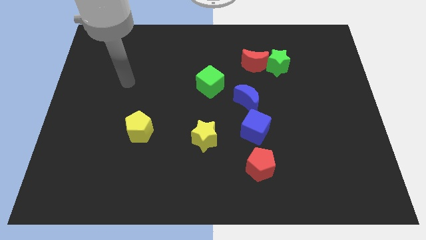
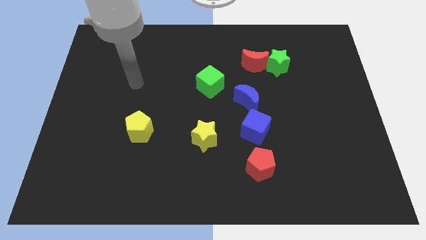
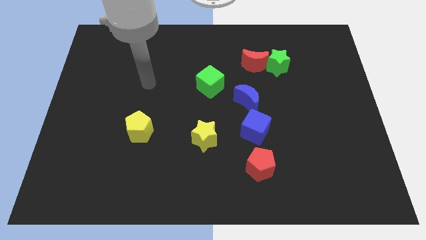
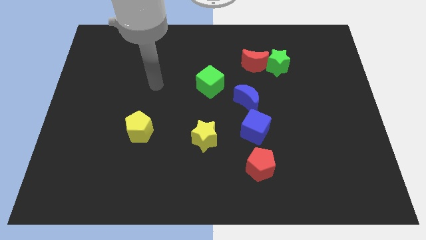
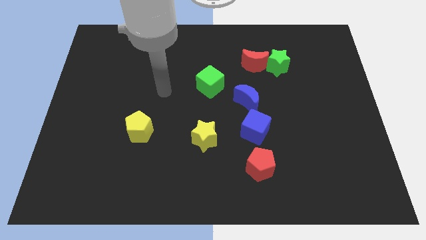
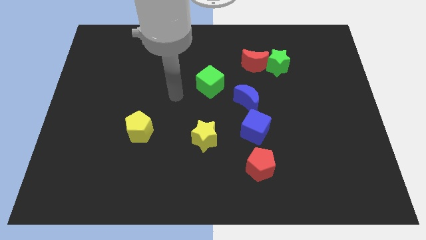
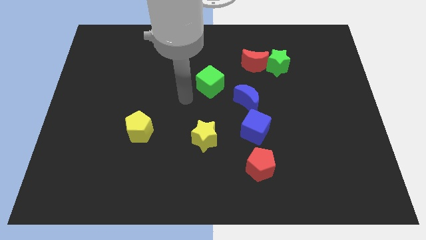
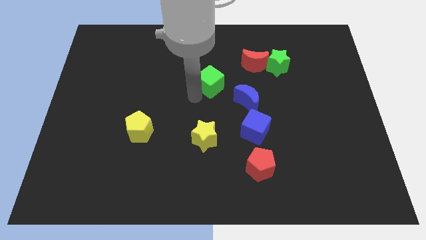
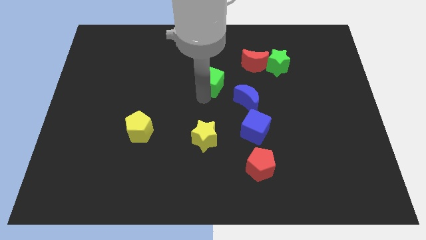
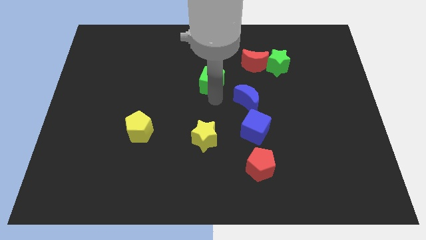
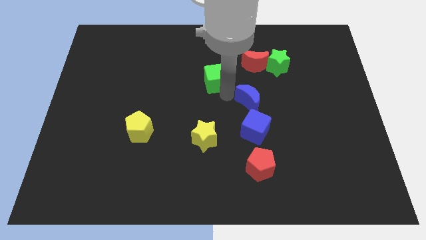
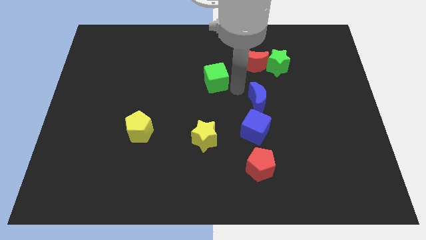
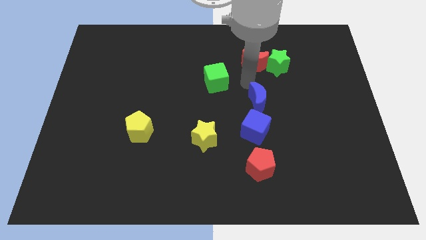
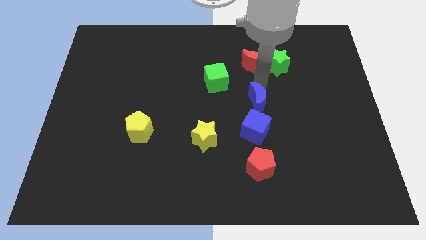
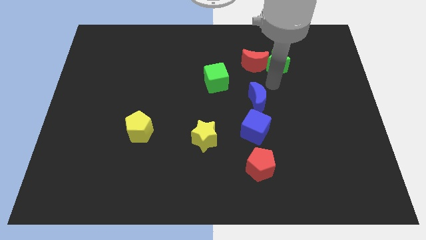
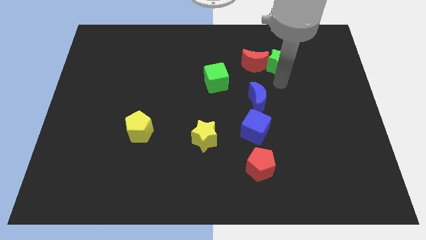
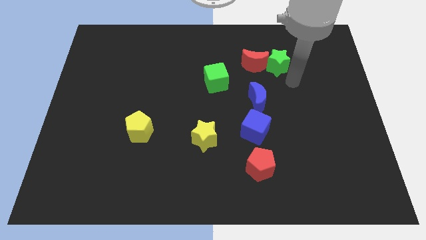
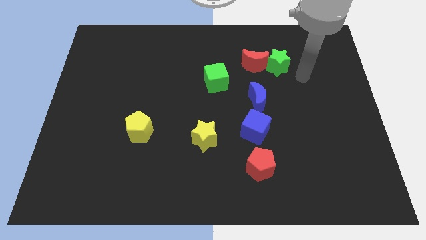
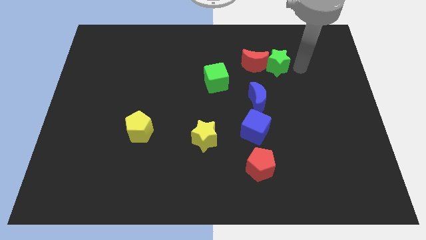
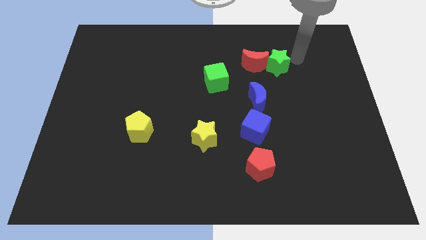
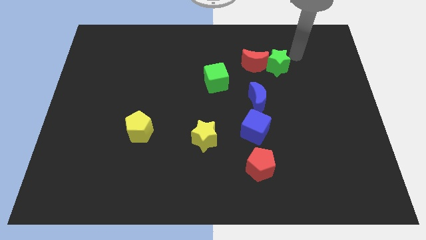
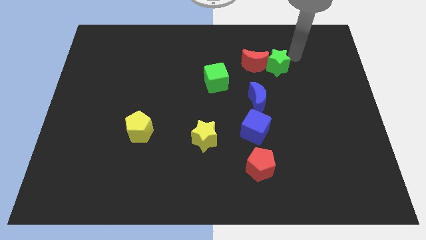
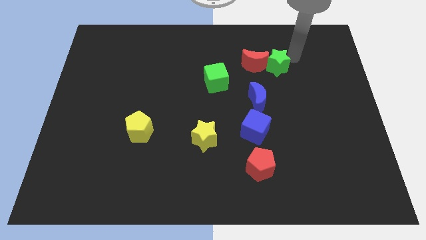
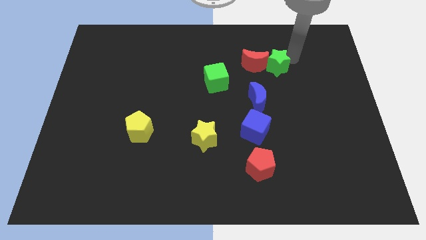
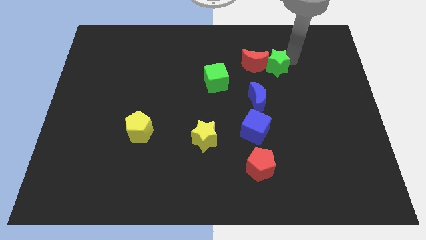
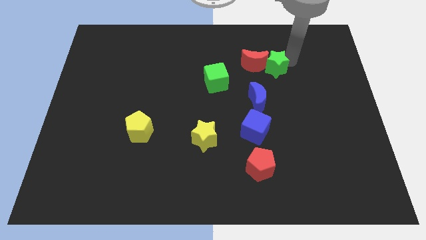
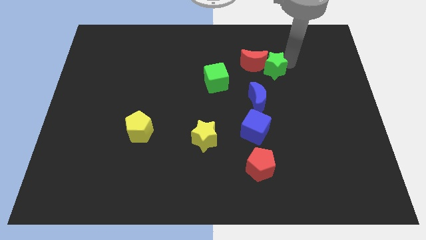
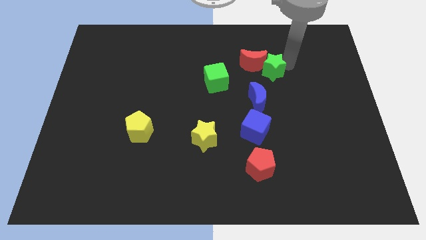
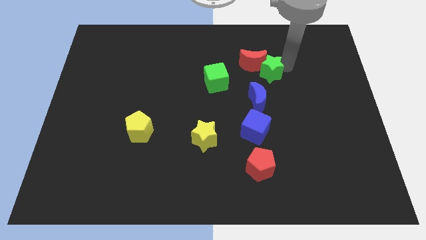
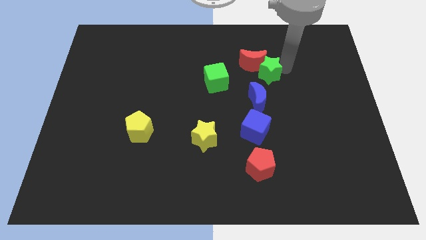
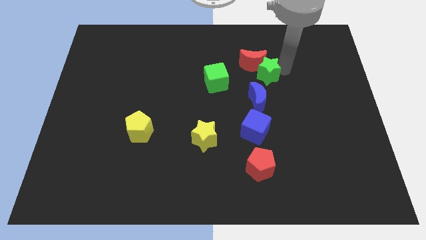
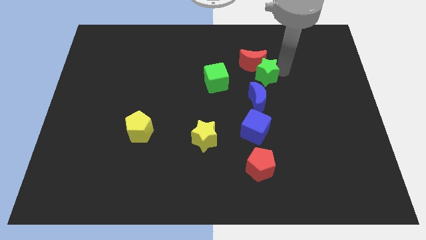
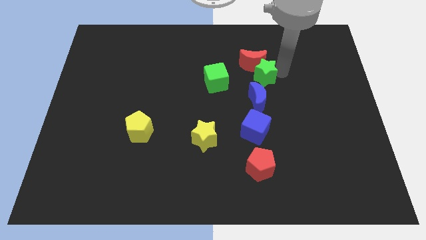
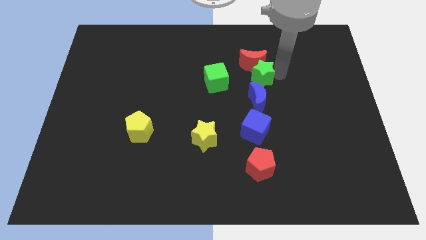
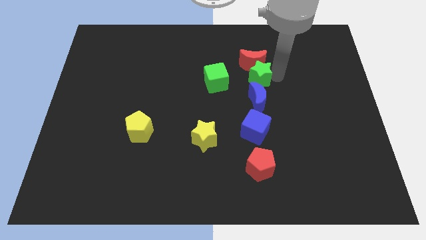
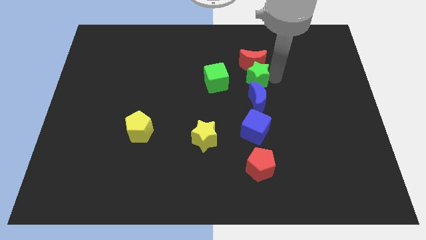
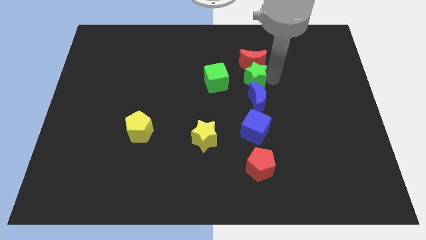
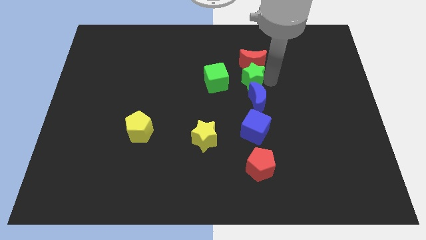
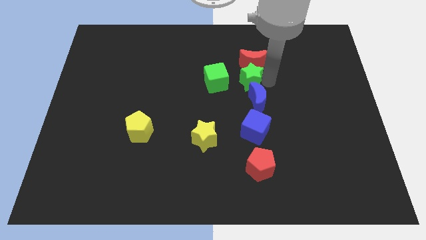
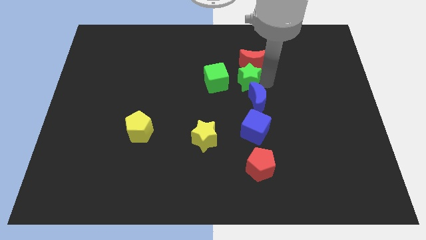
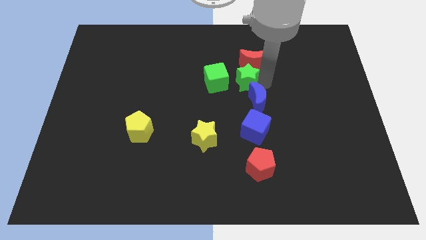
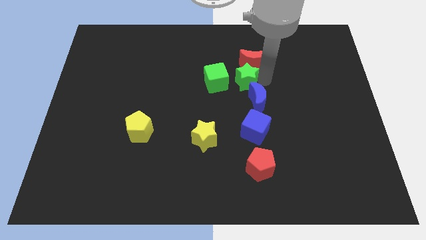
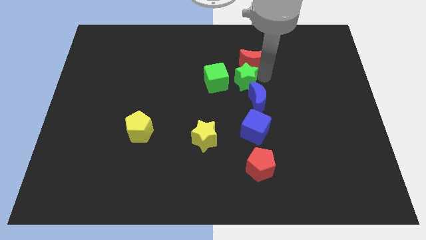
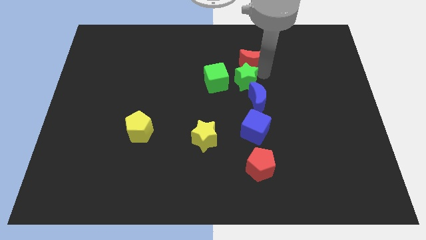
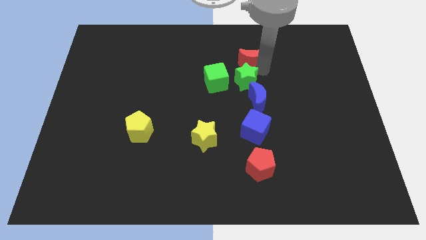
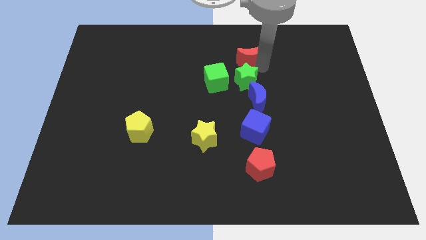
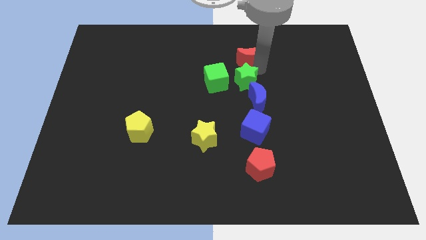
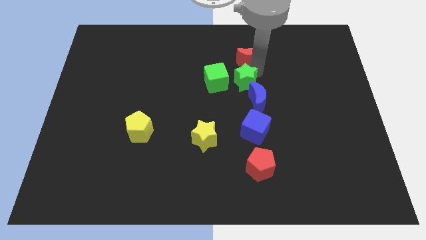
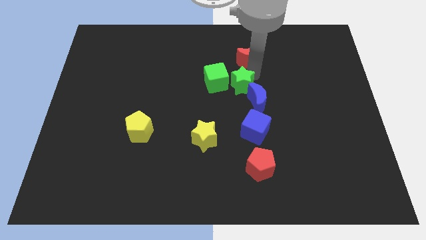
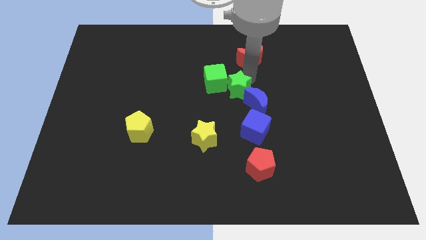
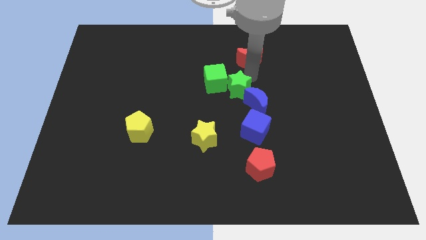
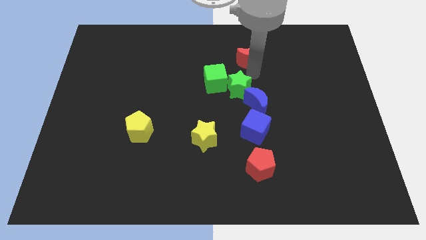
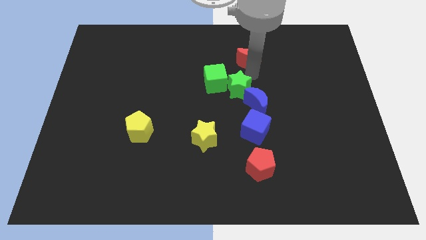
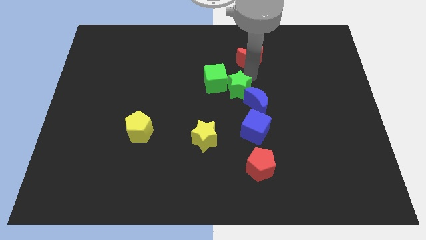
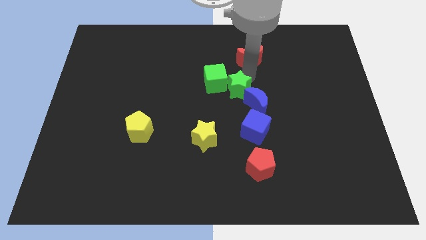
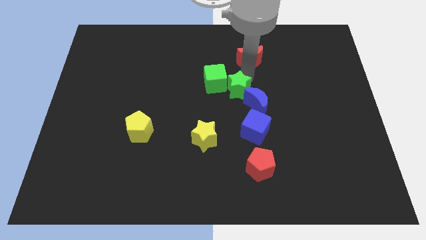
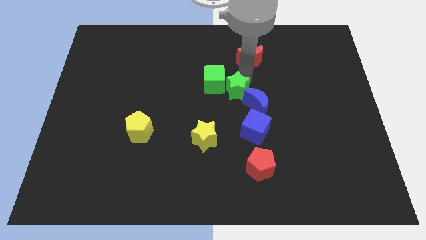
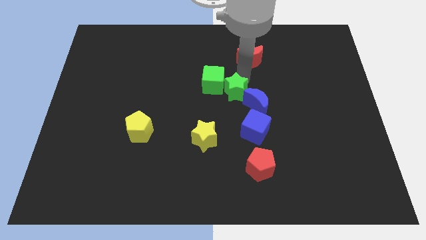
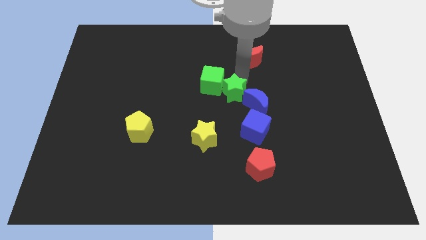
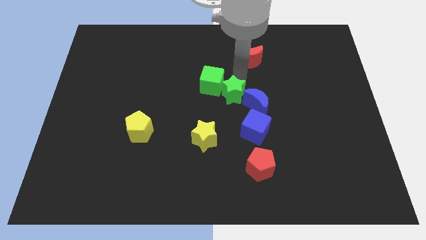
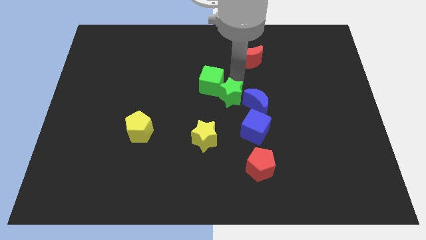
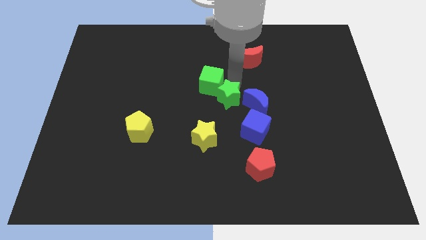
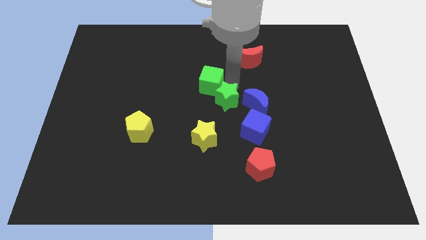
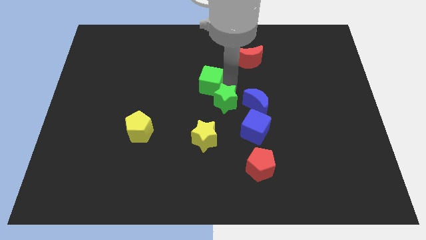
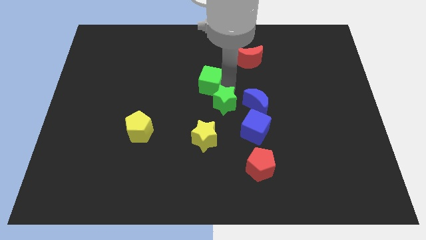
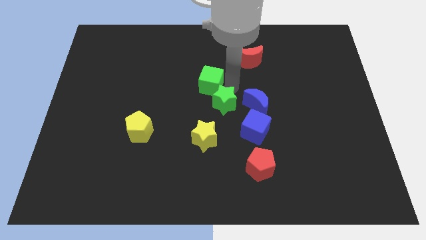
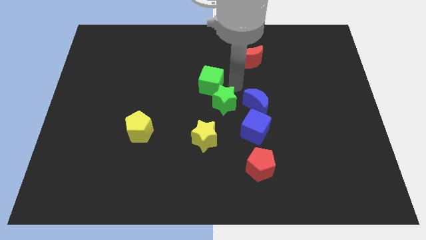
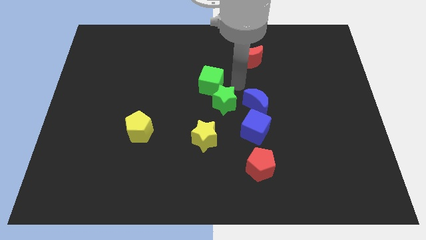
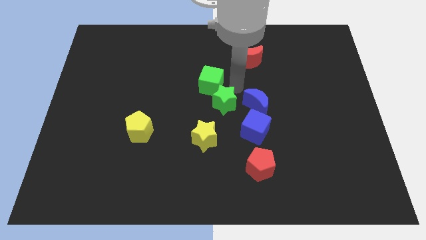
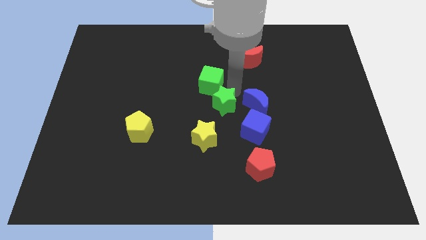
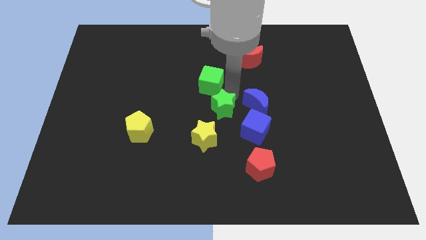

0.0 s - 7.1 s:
slide the green star diagonally down and left

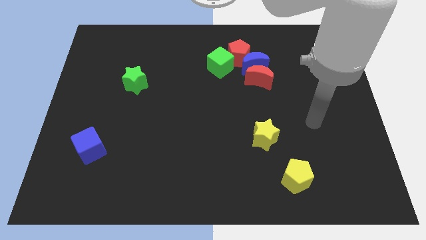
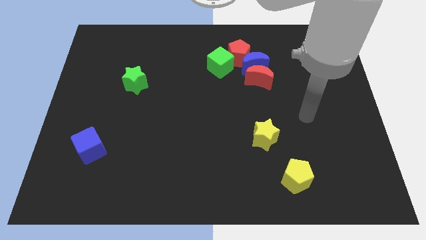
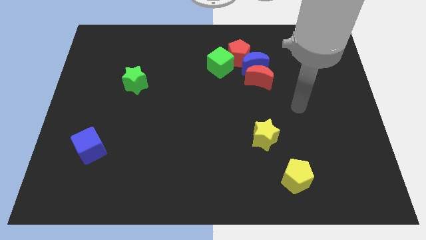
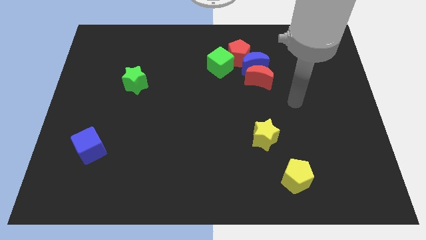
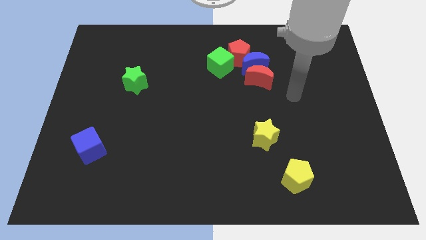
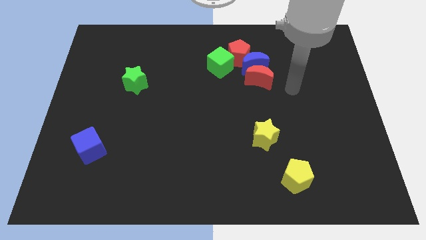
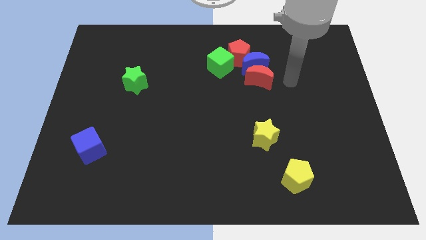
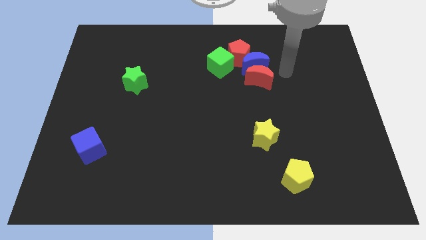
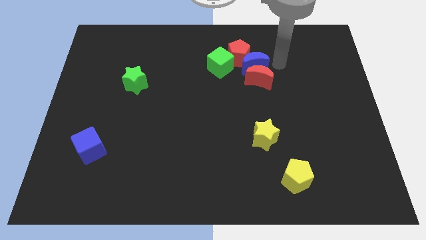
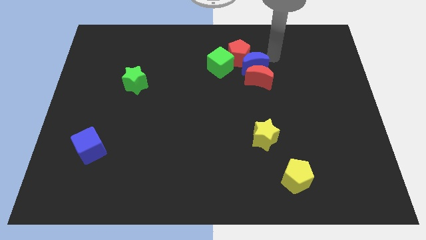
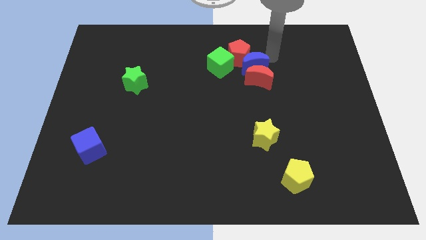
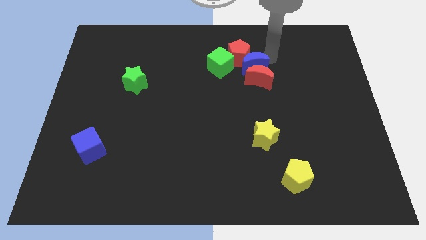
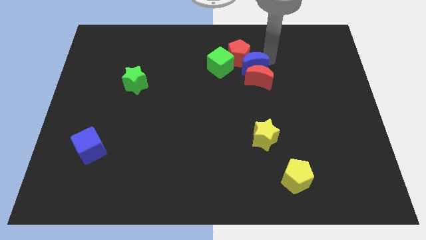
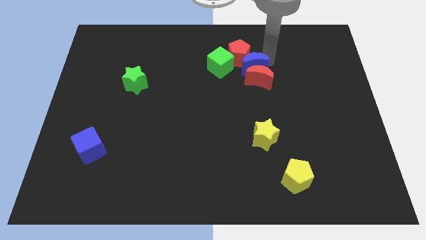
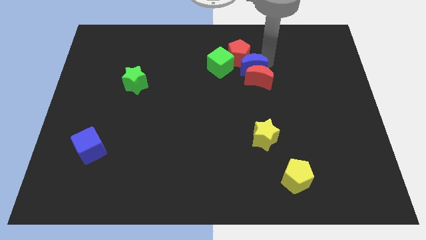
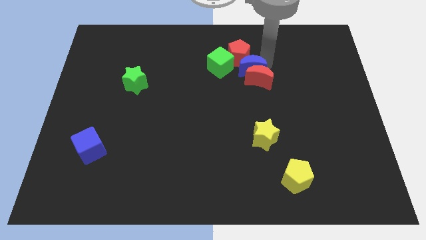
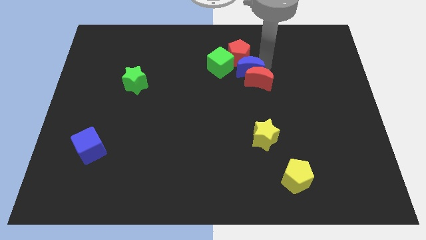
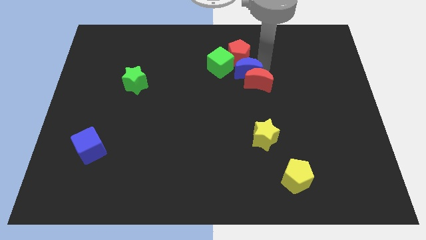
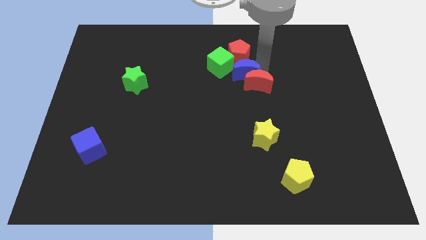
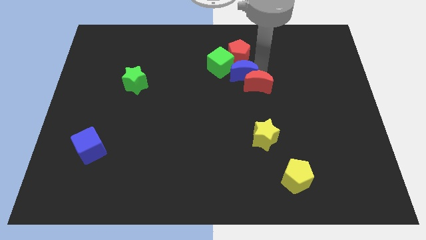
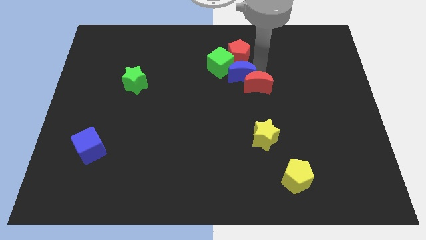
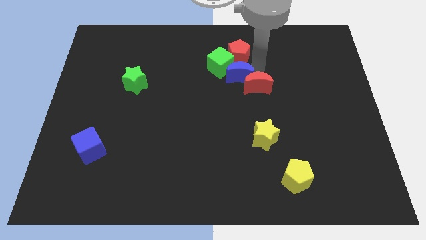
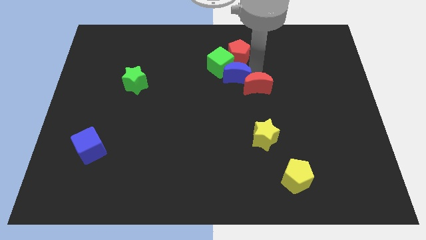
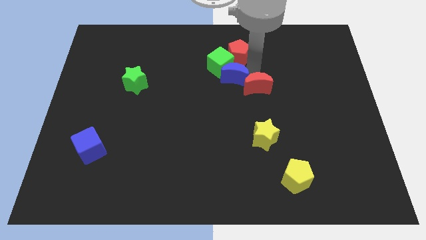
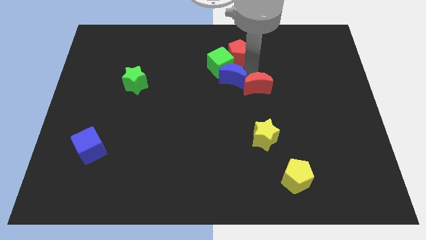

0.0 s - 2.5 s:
push the blue moon down and left a little
